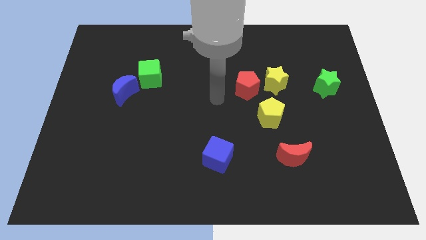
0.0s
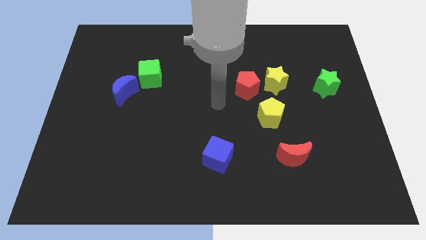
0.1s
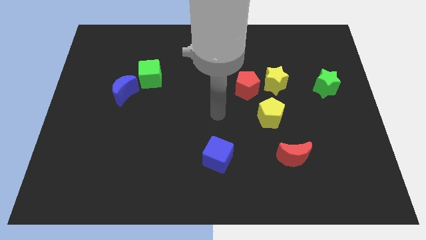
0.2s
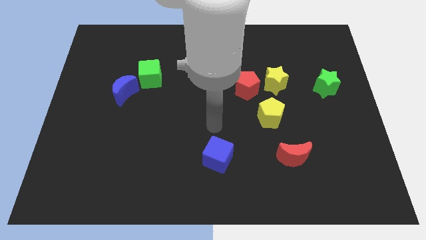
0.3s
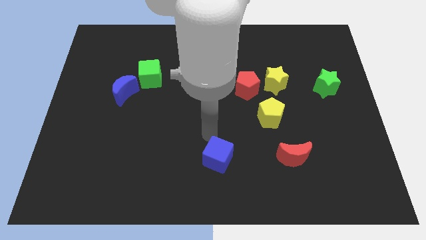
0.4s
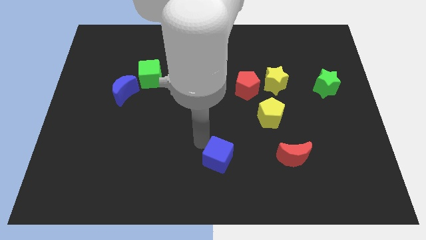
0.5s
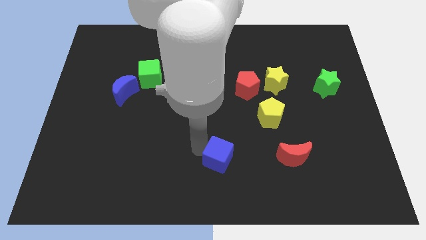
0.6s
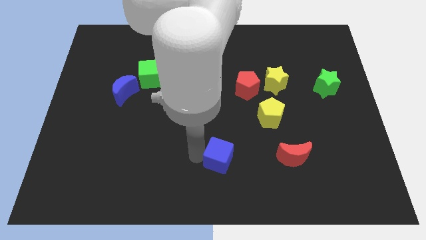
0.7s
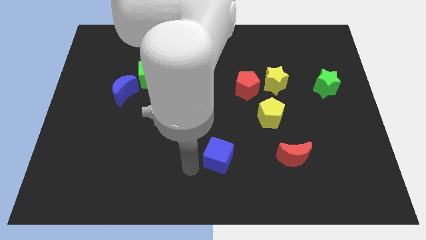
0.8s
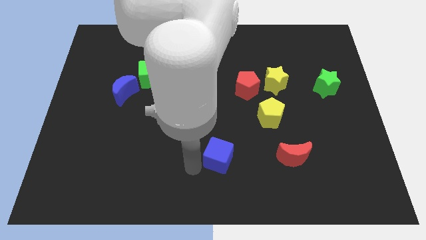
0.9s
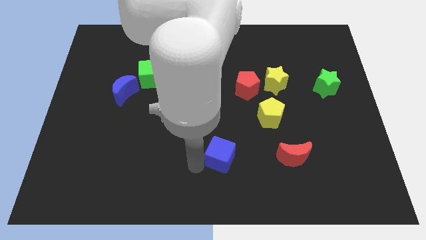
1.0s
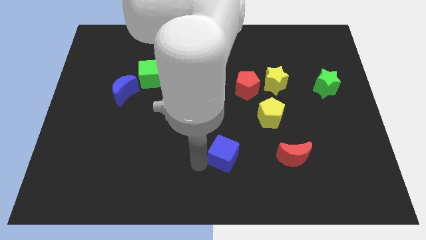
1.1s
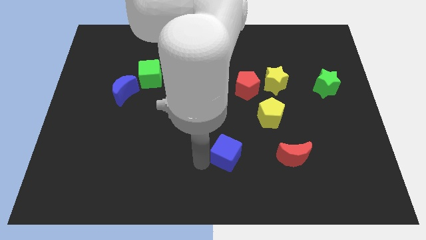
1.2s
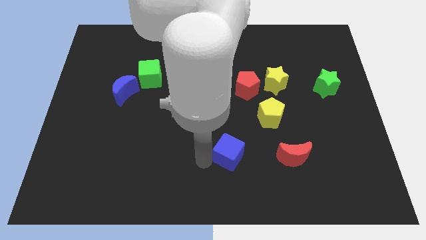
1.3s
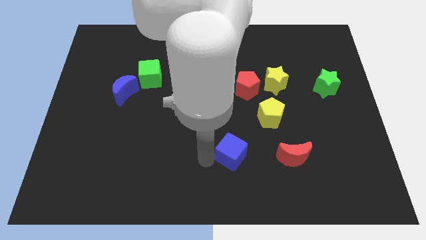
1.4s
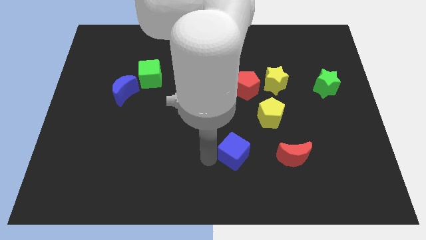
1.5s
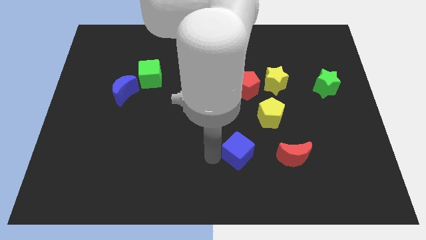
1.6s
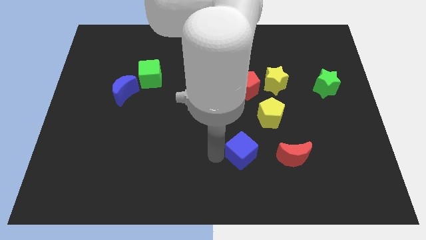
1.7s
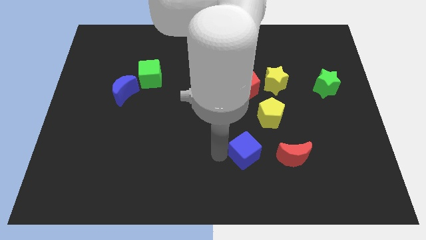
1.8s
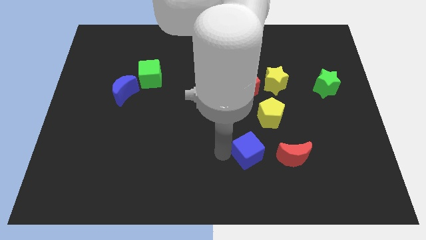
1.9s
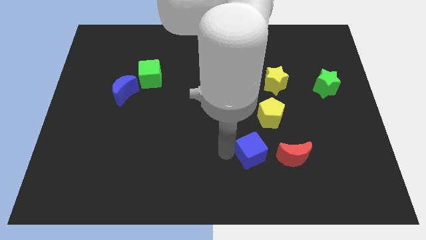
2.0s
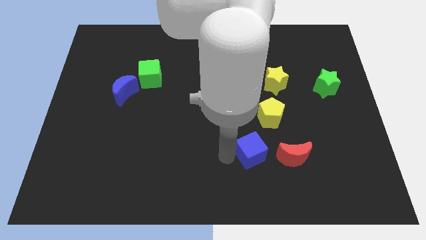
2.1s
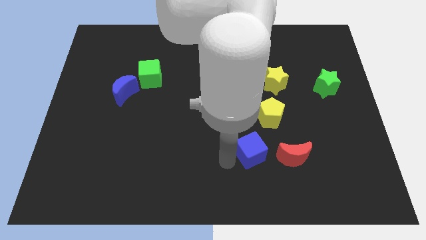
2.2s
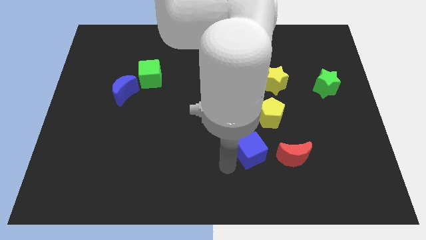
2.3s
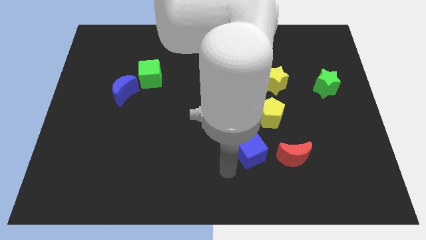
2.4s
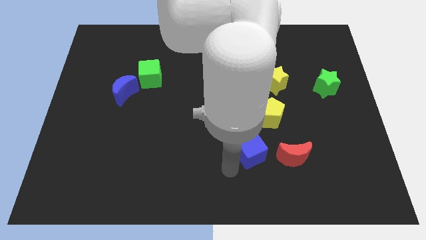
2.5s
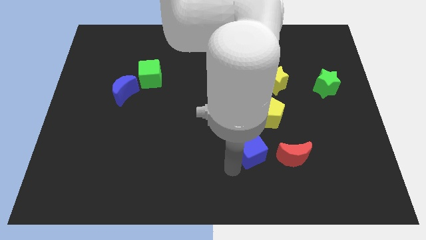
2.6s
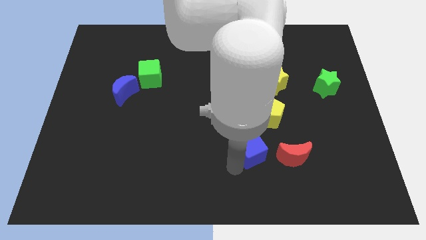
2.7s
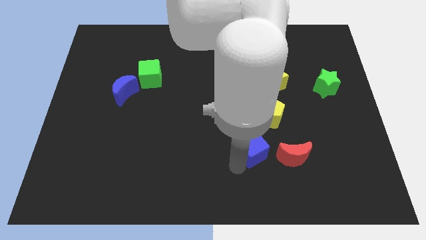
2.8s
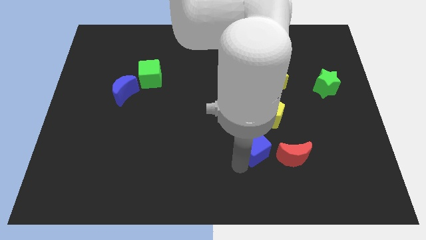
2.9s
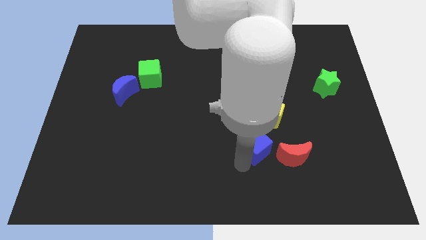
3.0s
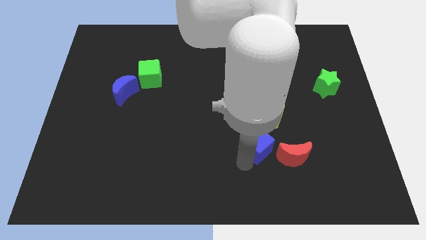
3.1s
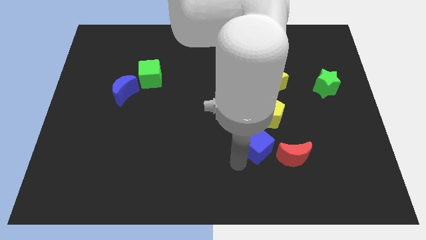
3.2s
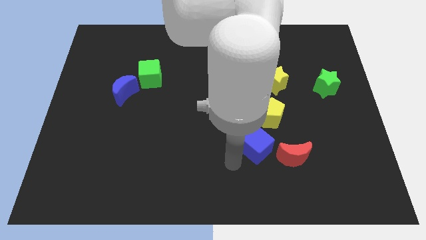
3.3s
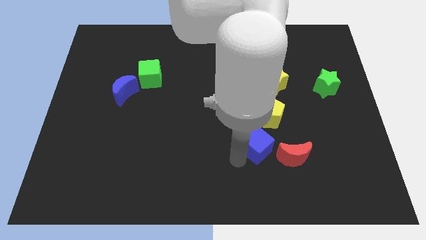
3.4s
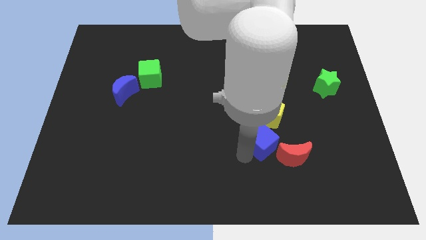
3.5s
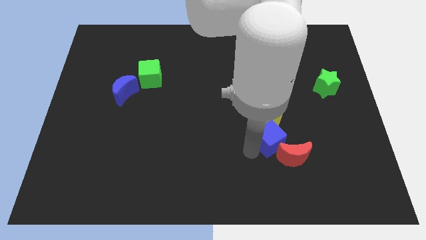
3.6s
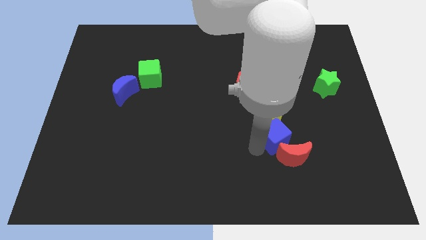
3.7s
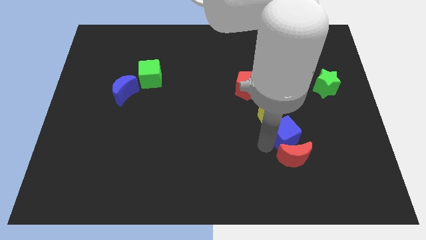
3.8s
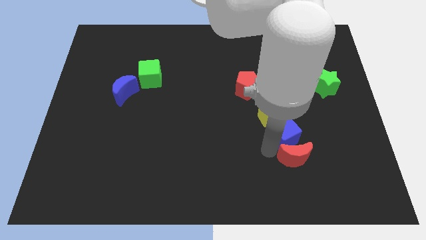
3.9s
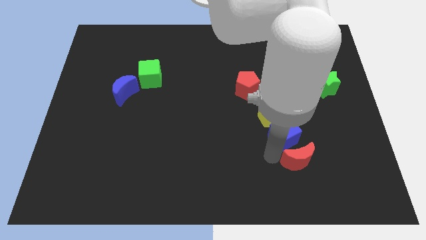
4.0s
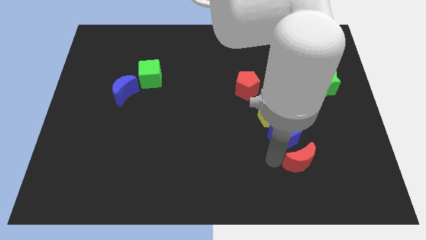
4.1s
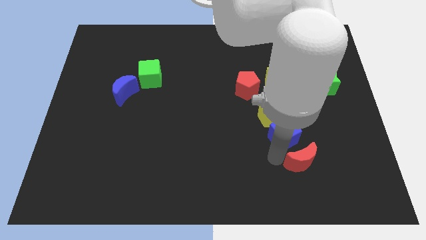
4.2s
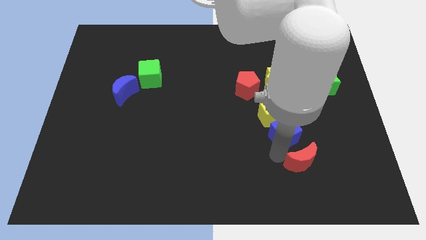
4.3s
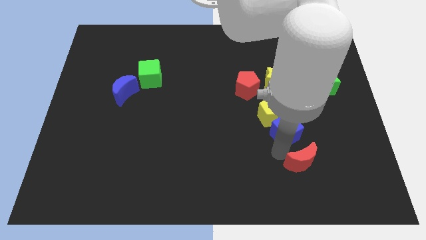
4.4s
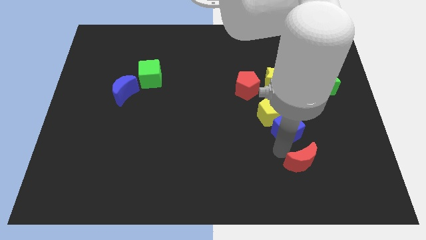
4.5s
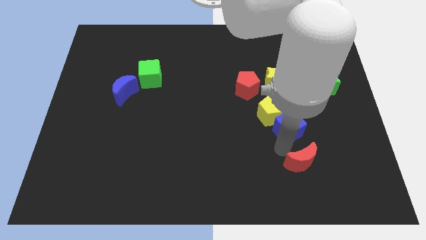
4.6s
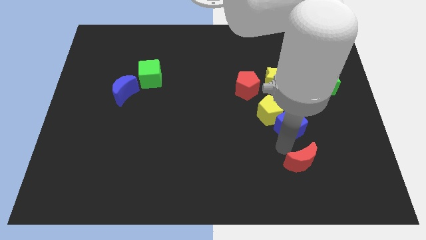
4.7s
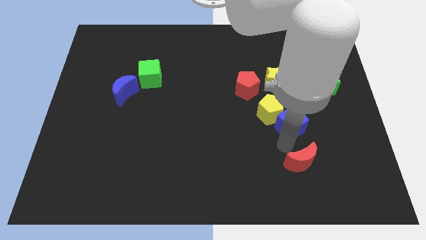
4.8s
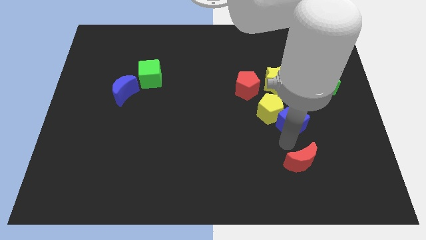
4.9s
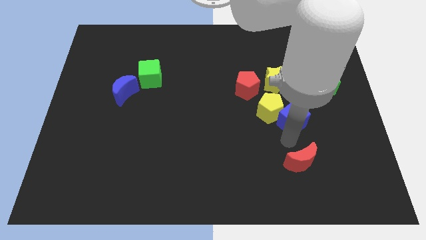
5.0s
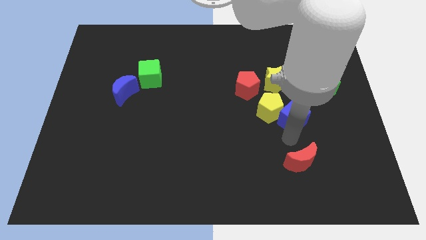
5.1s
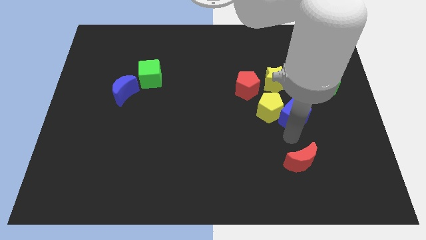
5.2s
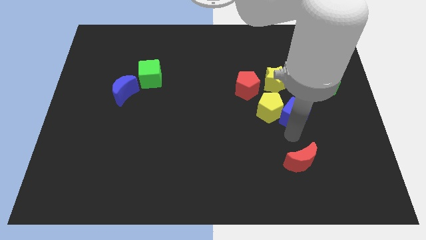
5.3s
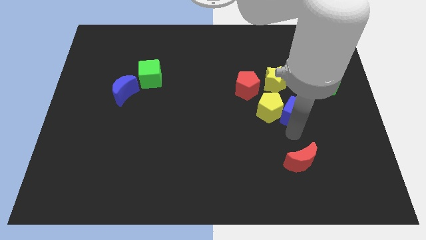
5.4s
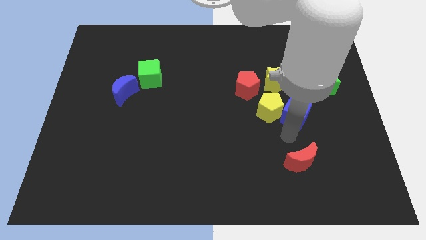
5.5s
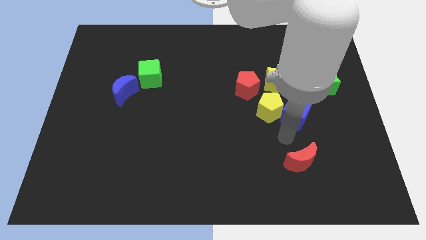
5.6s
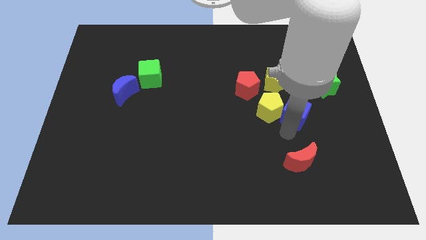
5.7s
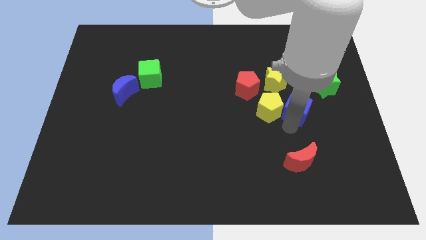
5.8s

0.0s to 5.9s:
push the blue cube up and to the right diagonally

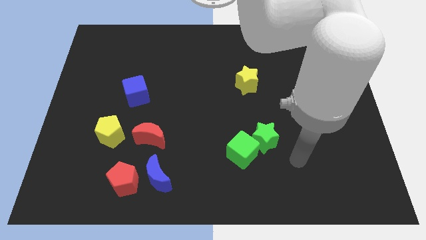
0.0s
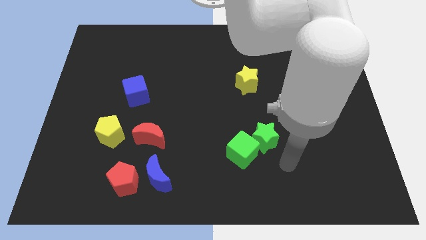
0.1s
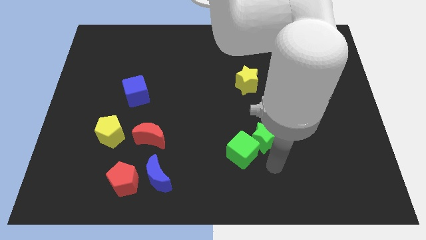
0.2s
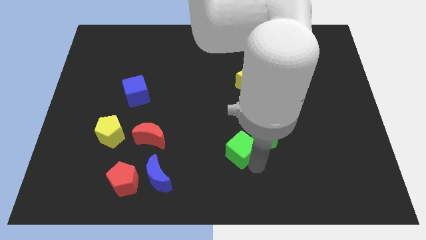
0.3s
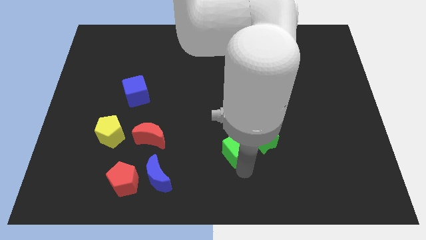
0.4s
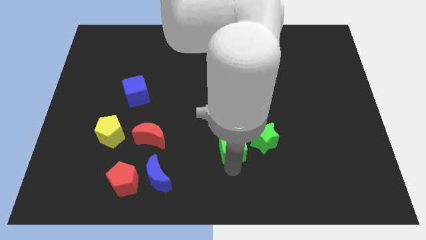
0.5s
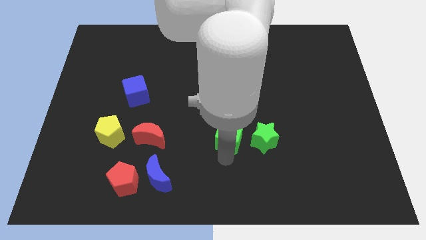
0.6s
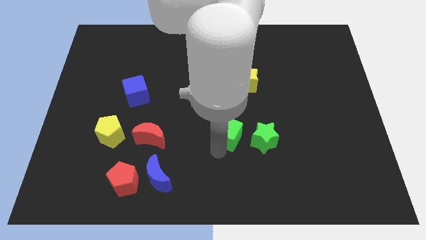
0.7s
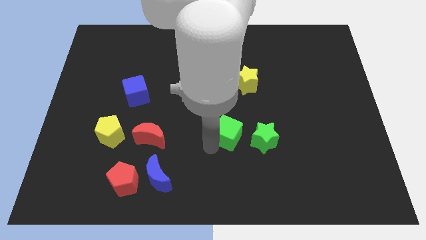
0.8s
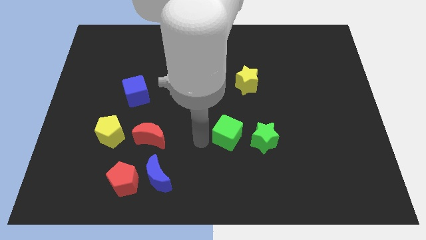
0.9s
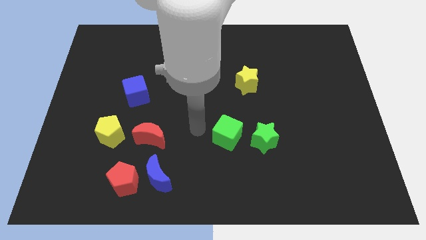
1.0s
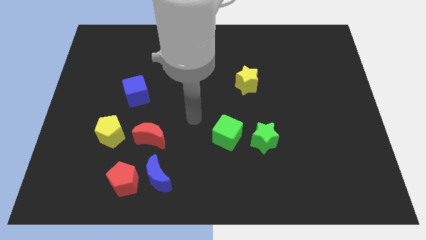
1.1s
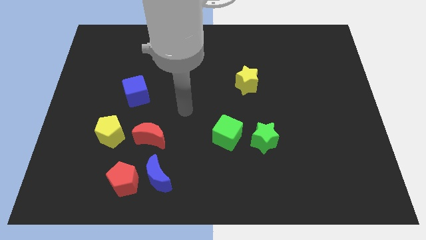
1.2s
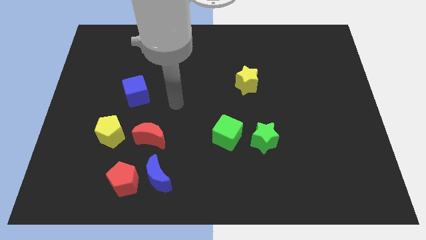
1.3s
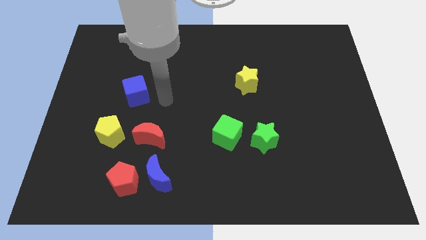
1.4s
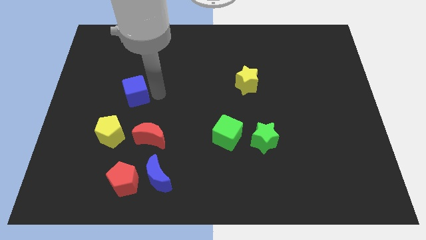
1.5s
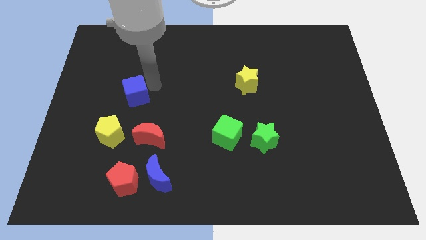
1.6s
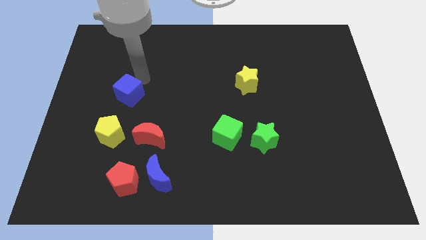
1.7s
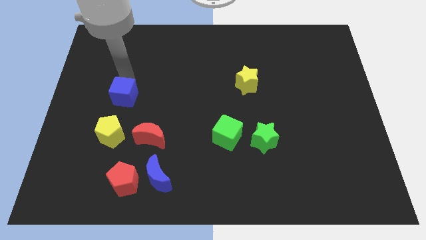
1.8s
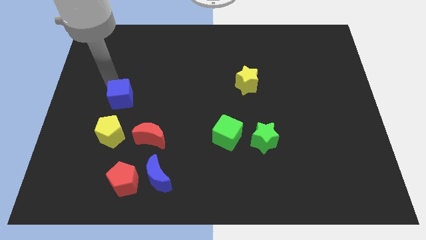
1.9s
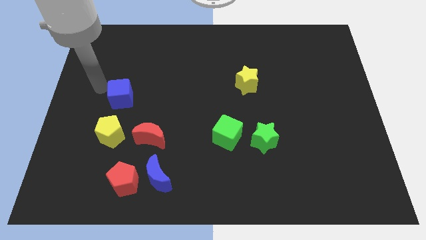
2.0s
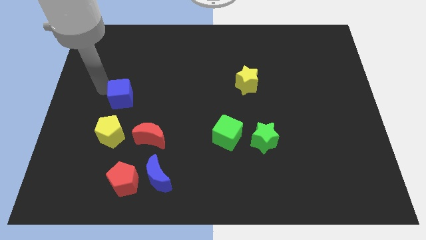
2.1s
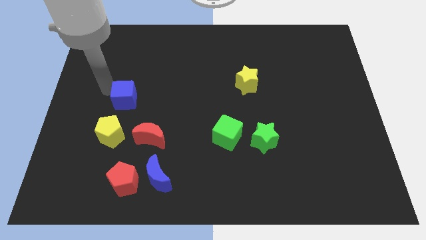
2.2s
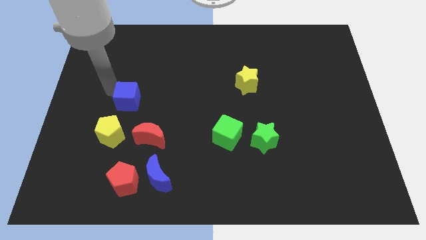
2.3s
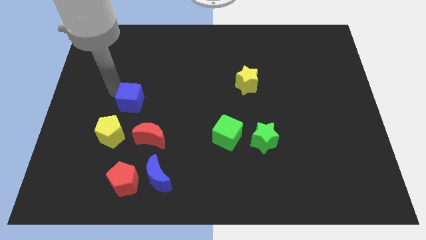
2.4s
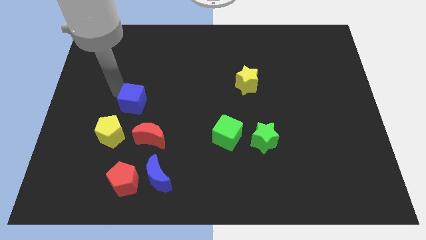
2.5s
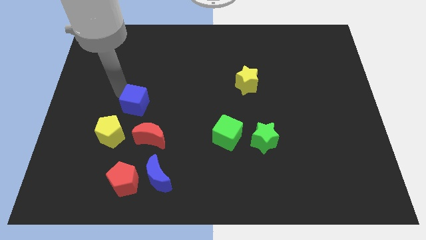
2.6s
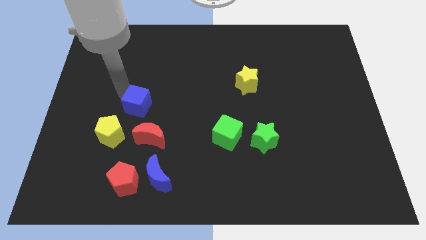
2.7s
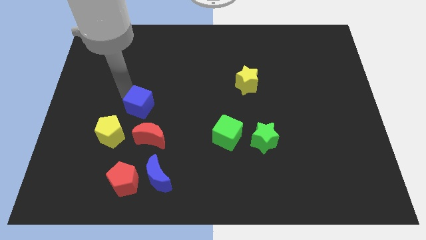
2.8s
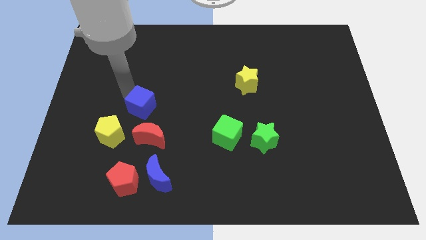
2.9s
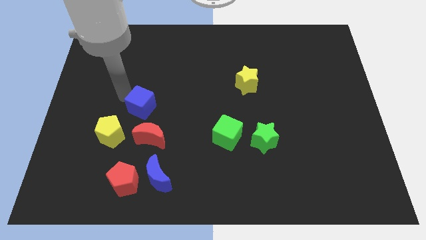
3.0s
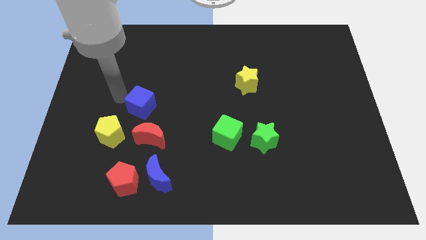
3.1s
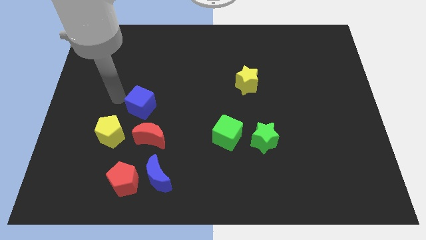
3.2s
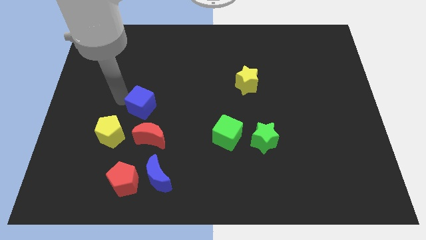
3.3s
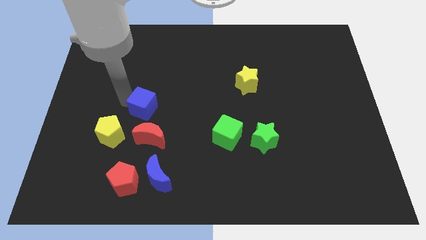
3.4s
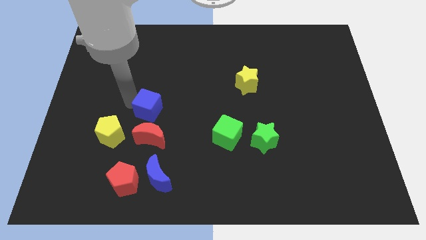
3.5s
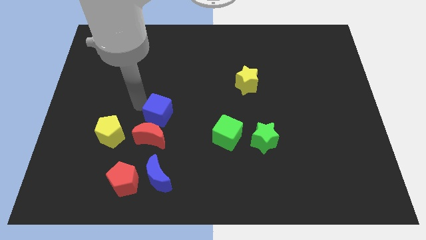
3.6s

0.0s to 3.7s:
slide the blue cube diagonally down and right a little
